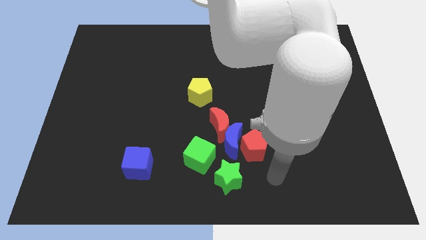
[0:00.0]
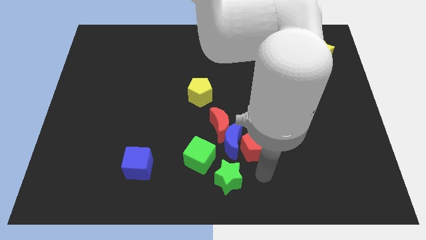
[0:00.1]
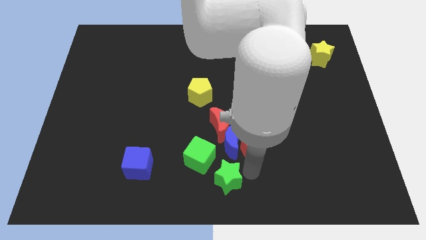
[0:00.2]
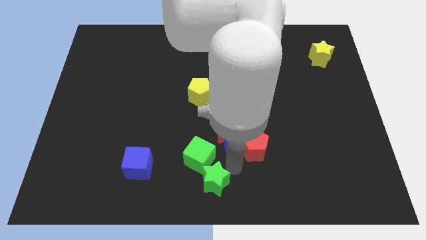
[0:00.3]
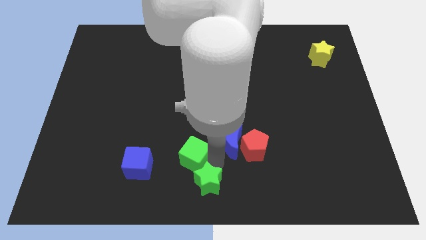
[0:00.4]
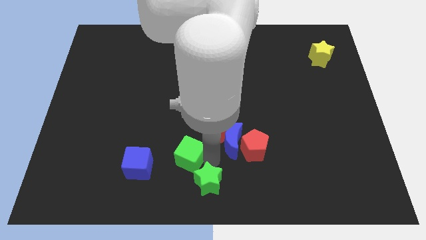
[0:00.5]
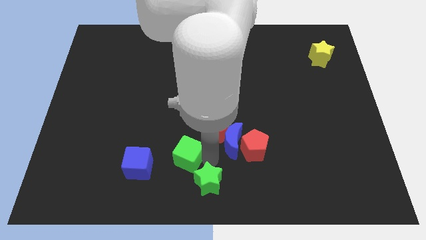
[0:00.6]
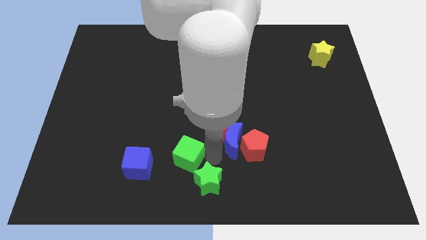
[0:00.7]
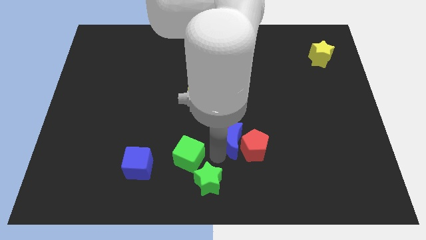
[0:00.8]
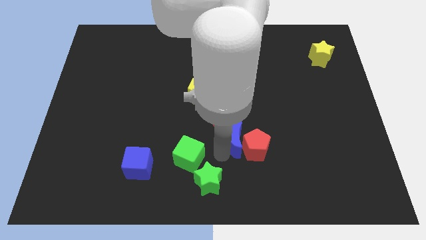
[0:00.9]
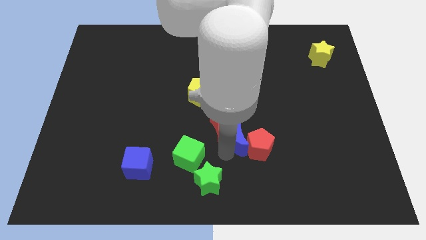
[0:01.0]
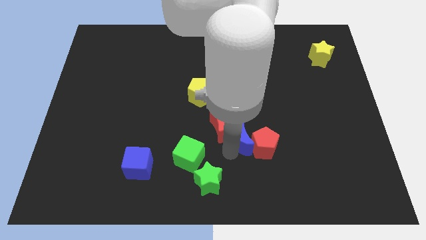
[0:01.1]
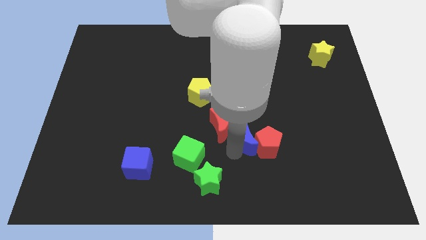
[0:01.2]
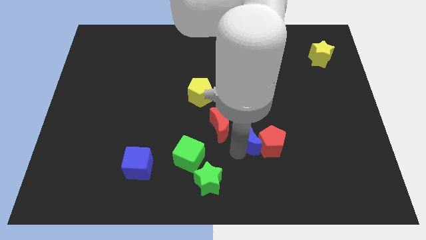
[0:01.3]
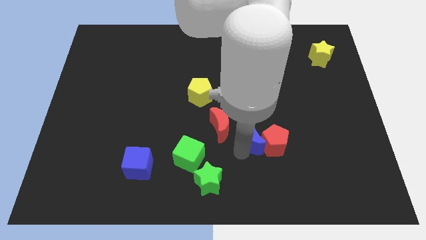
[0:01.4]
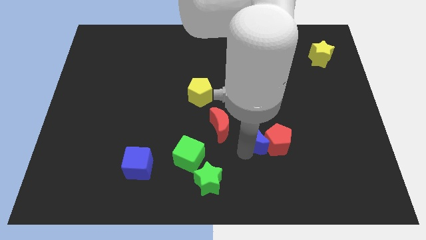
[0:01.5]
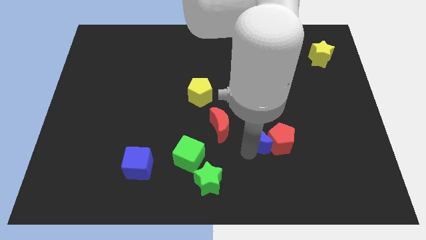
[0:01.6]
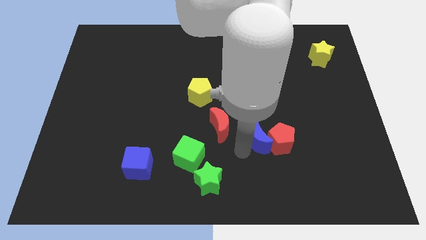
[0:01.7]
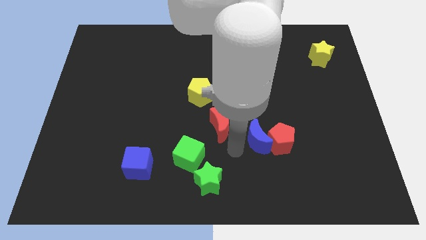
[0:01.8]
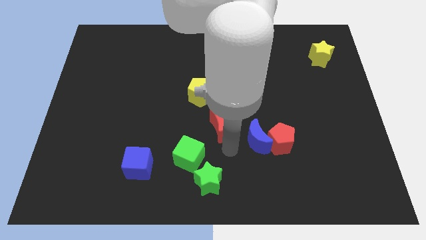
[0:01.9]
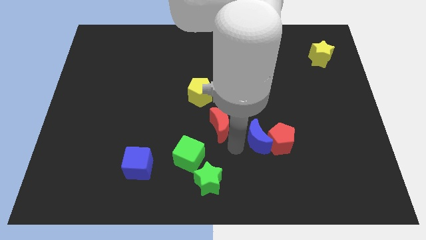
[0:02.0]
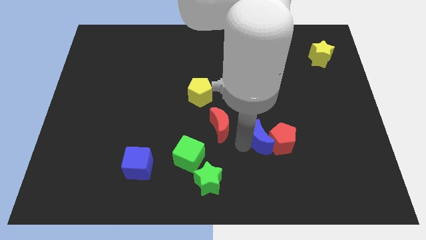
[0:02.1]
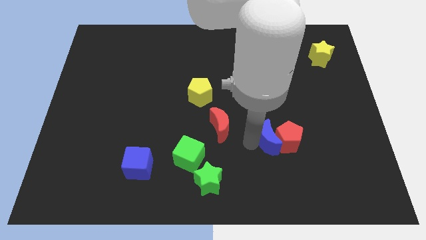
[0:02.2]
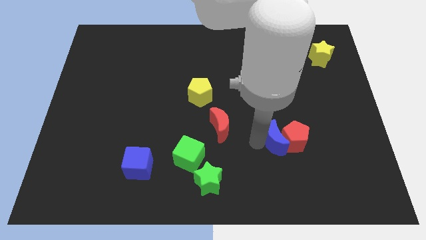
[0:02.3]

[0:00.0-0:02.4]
pull the blue moon apart from the group of blocks

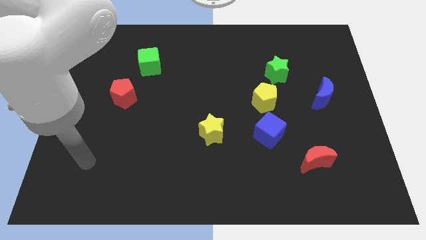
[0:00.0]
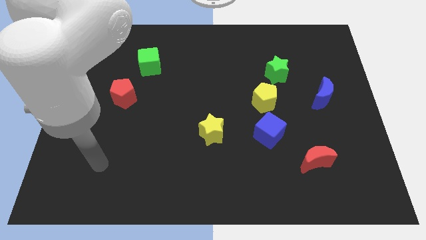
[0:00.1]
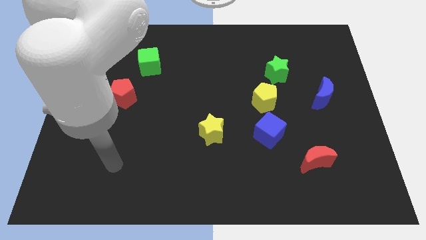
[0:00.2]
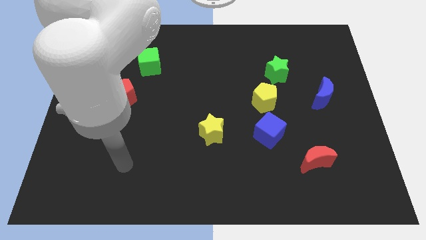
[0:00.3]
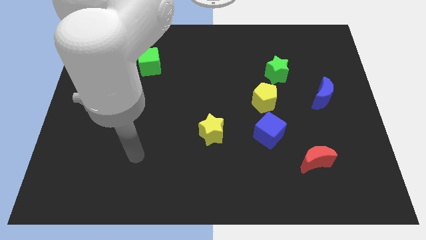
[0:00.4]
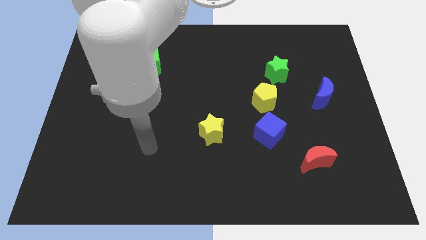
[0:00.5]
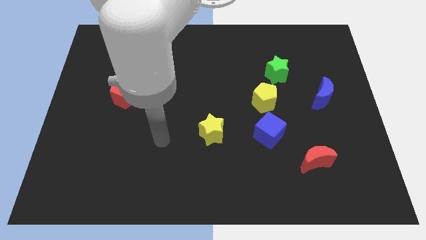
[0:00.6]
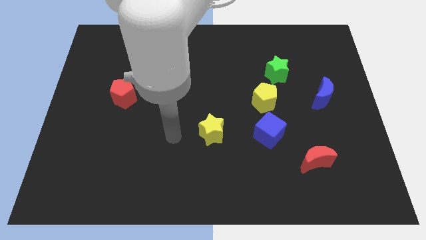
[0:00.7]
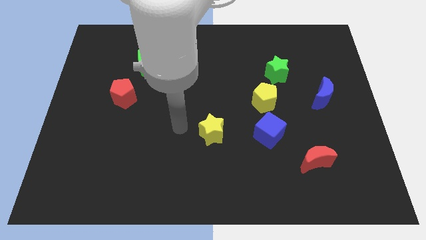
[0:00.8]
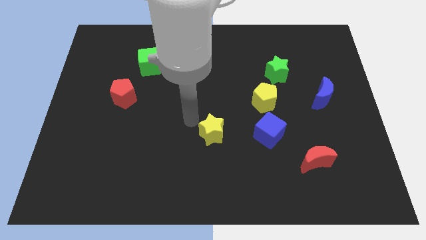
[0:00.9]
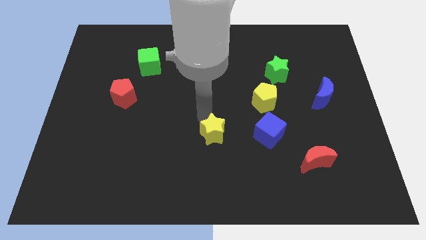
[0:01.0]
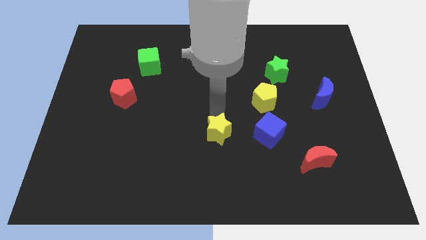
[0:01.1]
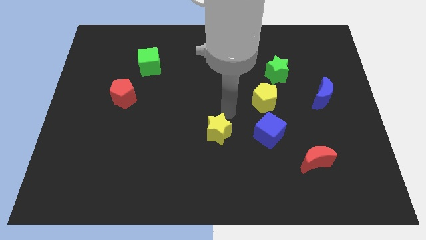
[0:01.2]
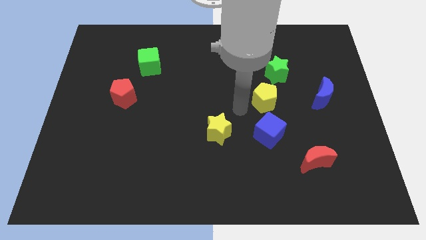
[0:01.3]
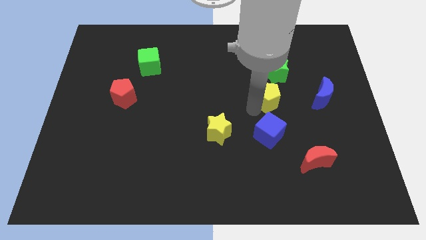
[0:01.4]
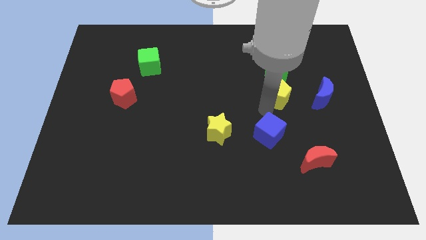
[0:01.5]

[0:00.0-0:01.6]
move the blue cube away from the yellow pentagon

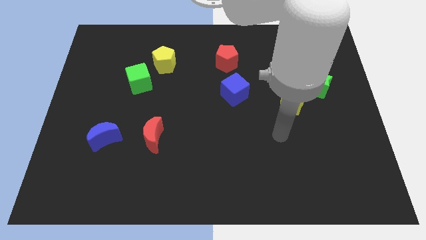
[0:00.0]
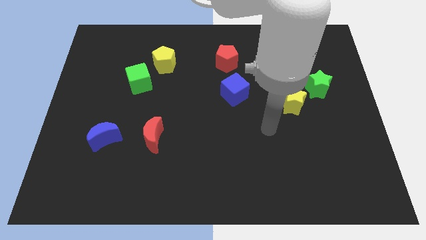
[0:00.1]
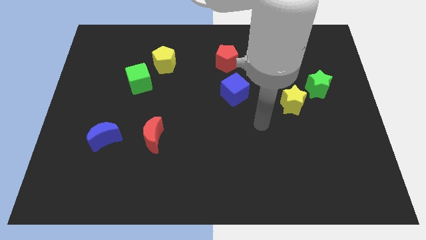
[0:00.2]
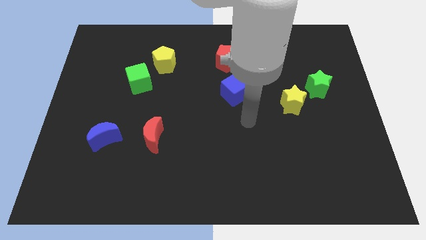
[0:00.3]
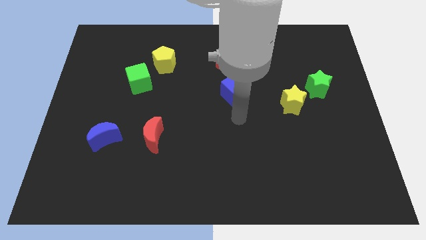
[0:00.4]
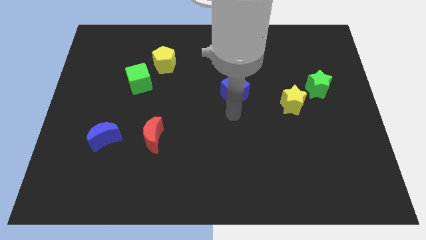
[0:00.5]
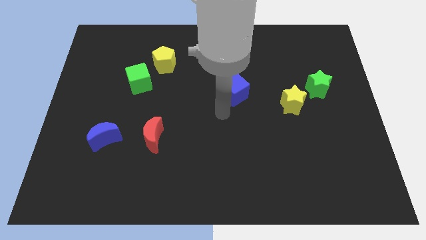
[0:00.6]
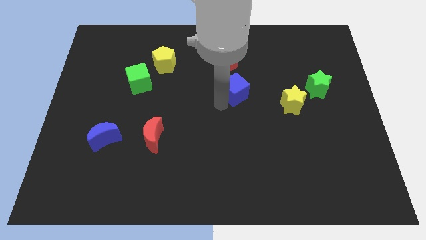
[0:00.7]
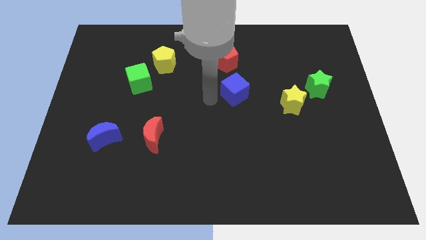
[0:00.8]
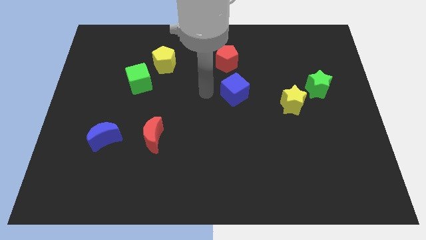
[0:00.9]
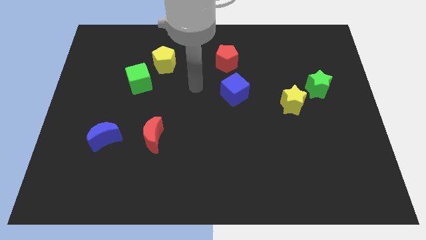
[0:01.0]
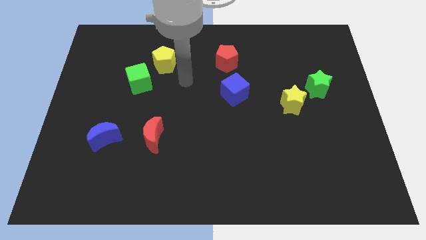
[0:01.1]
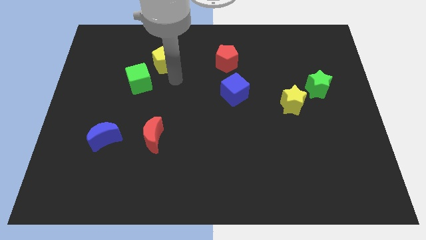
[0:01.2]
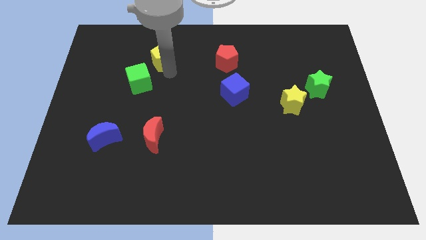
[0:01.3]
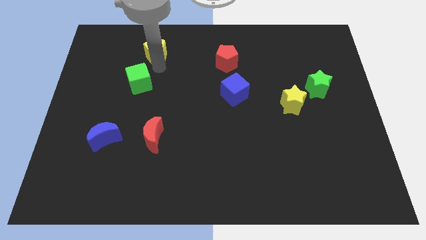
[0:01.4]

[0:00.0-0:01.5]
pull the green cube apart from the yellow pentagon

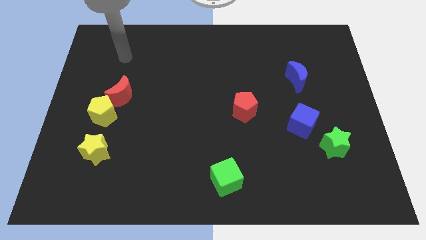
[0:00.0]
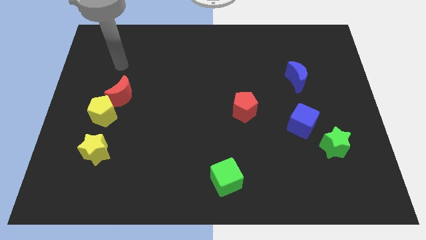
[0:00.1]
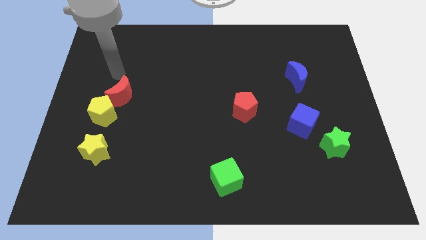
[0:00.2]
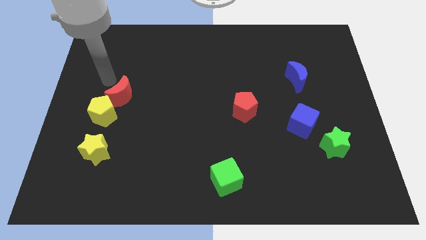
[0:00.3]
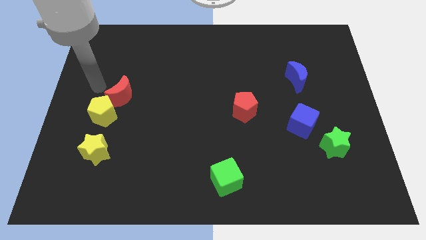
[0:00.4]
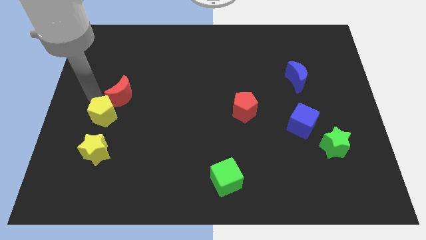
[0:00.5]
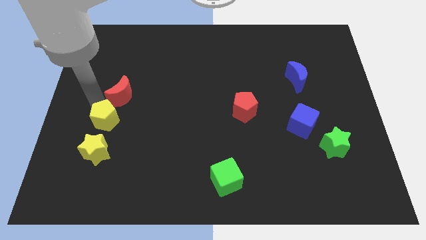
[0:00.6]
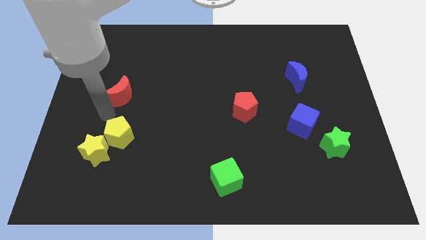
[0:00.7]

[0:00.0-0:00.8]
pull the red moon apart from the yellow pentagon

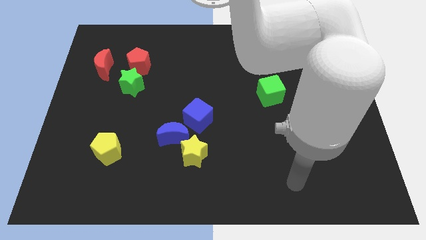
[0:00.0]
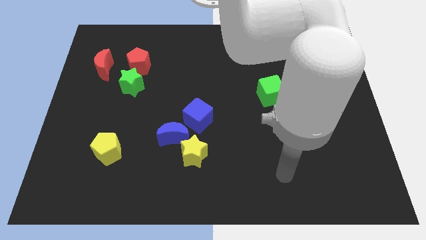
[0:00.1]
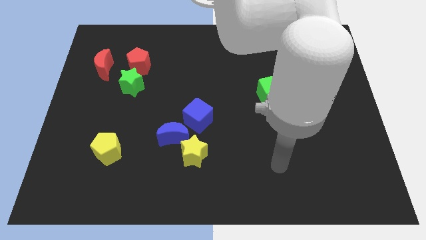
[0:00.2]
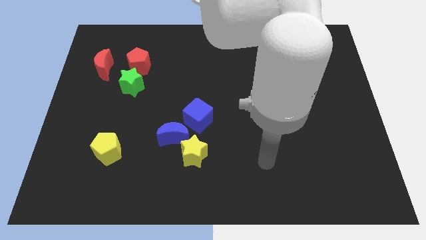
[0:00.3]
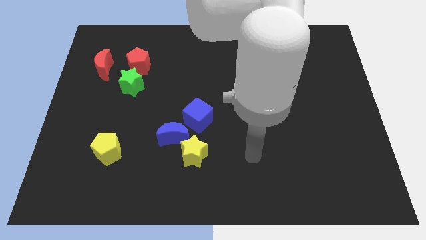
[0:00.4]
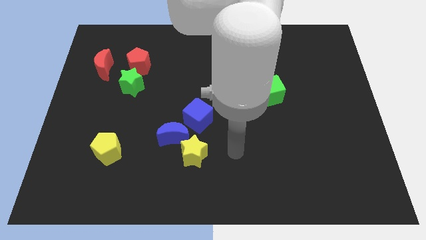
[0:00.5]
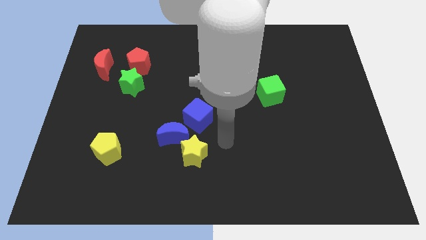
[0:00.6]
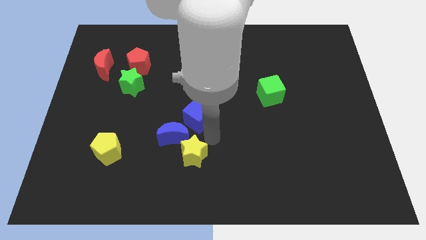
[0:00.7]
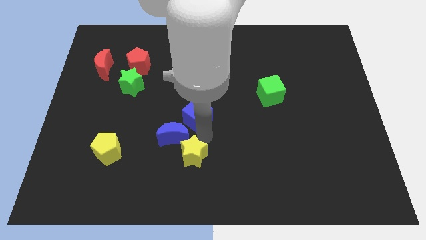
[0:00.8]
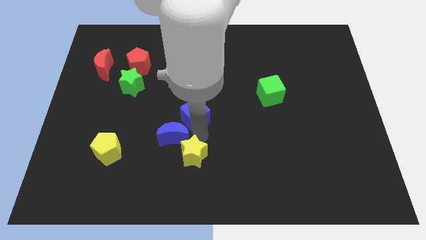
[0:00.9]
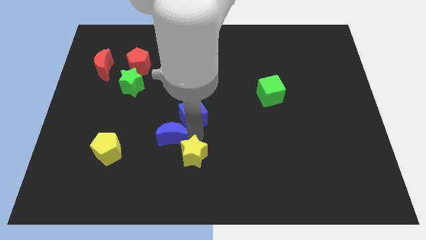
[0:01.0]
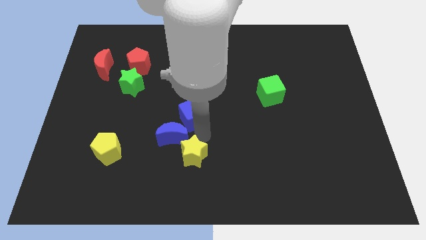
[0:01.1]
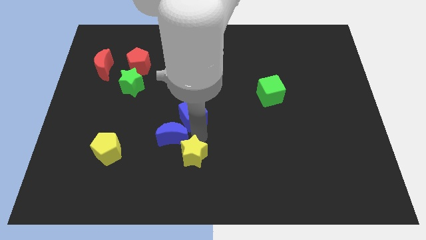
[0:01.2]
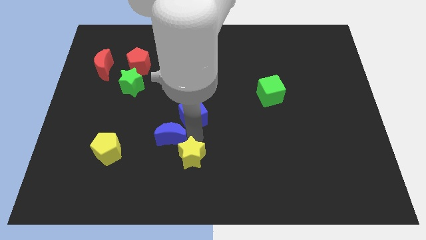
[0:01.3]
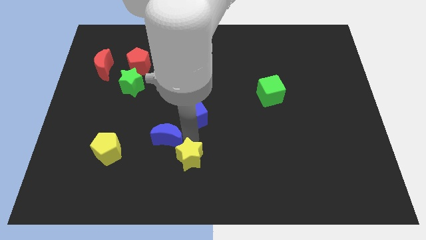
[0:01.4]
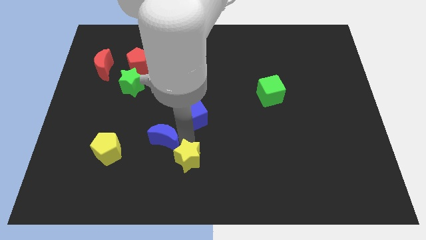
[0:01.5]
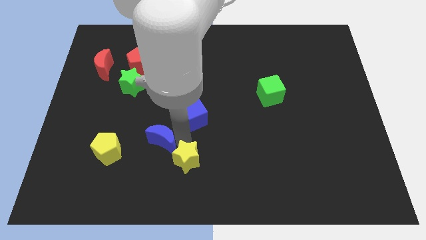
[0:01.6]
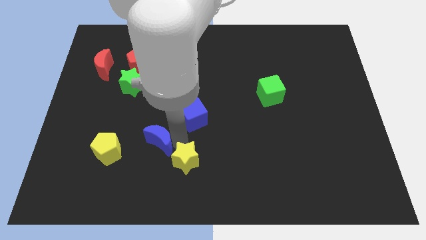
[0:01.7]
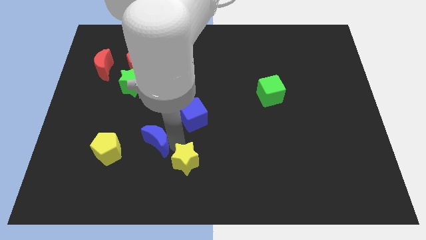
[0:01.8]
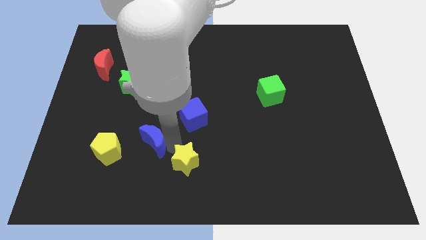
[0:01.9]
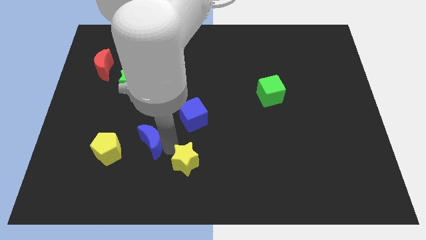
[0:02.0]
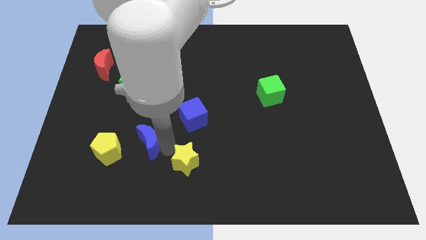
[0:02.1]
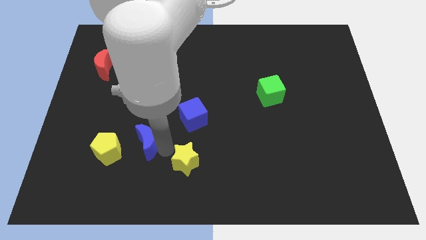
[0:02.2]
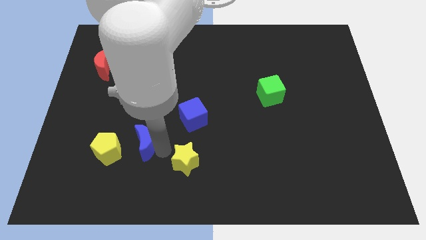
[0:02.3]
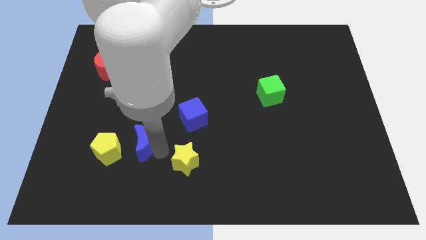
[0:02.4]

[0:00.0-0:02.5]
separate the blue moon from the yellow star and blue cube

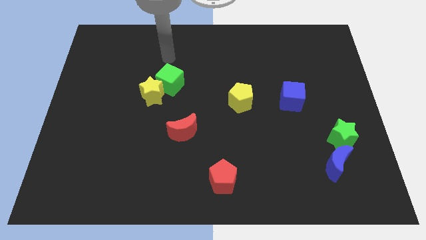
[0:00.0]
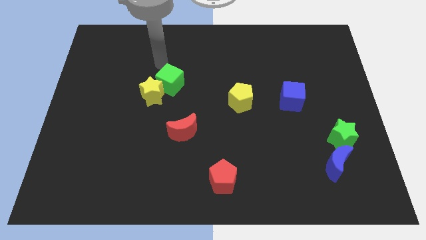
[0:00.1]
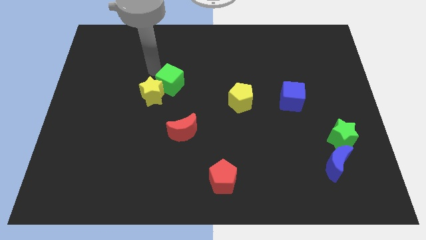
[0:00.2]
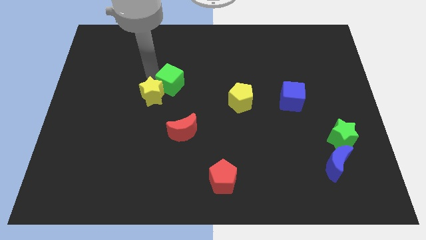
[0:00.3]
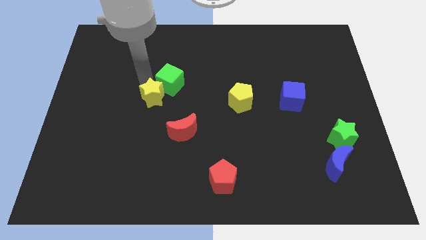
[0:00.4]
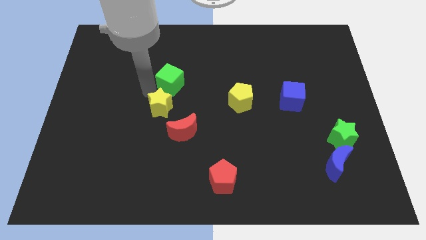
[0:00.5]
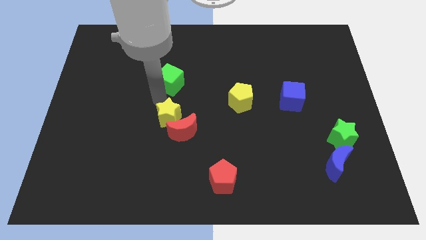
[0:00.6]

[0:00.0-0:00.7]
pull the green cube apart from the yellow star
